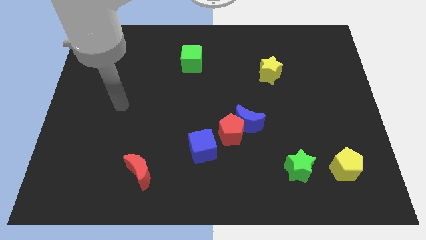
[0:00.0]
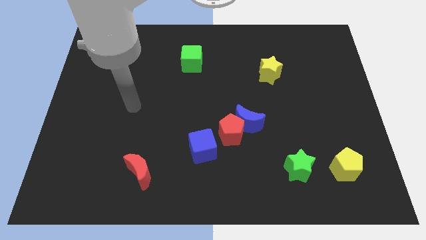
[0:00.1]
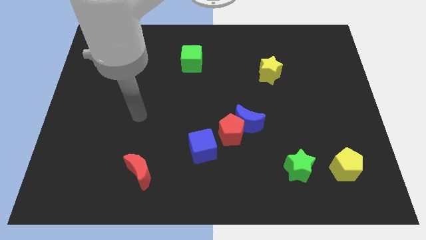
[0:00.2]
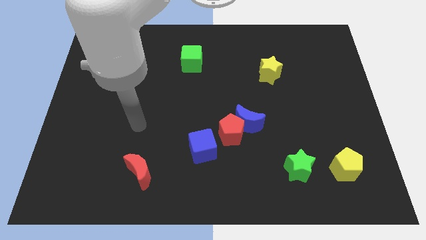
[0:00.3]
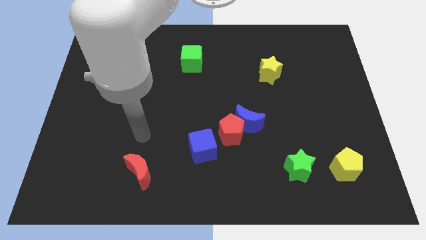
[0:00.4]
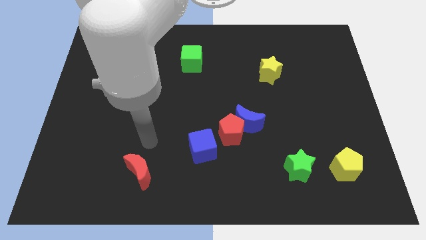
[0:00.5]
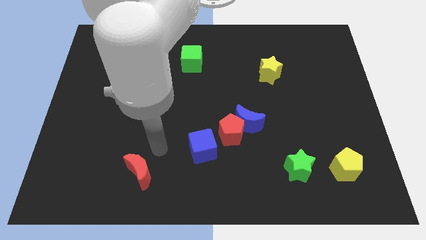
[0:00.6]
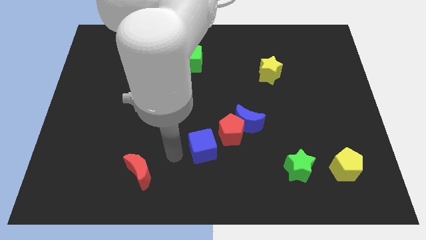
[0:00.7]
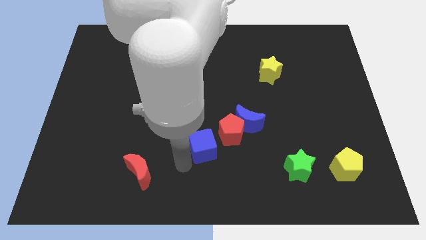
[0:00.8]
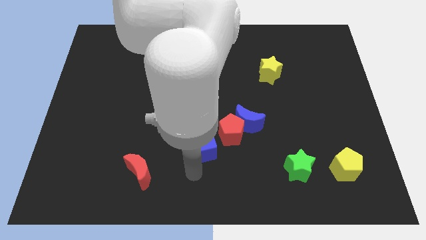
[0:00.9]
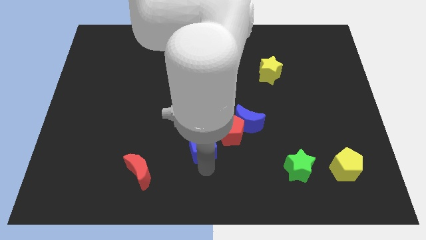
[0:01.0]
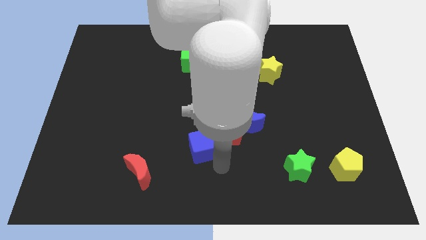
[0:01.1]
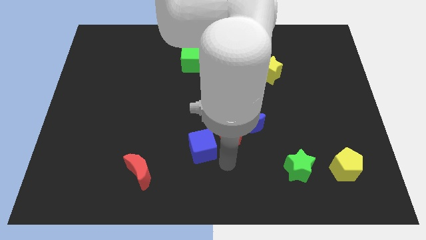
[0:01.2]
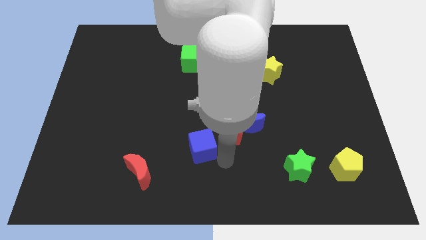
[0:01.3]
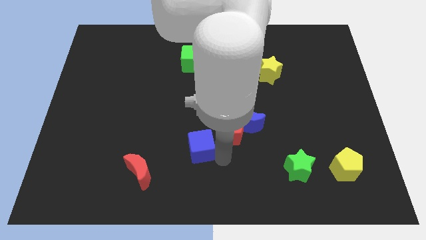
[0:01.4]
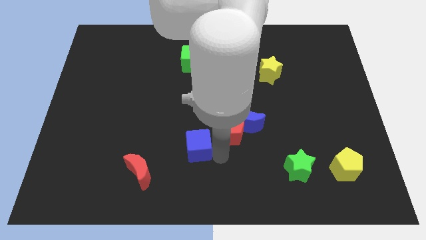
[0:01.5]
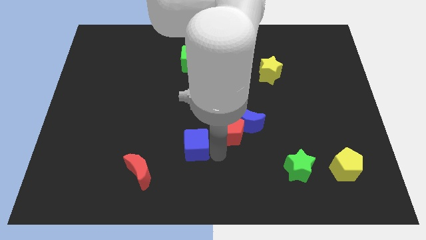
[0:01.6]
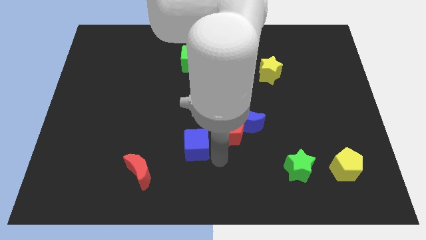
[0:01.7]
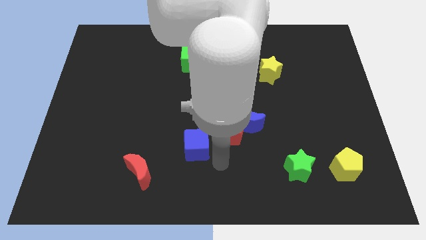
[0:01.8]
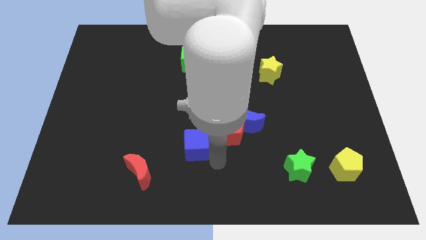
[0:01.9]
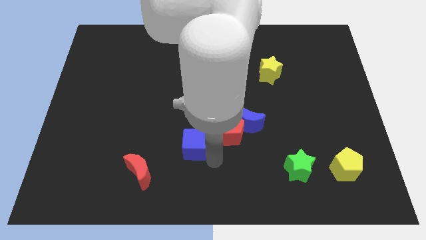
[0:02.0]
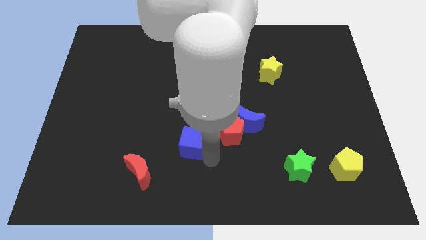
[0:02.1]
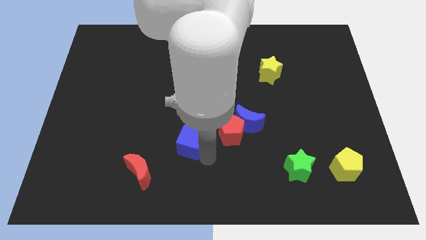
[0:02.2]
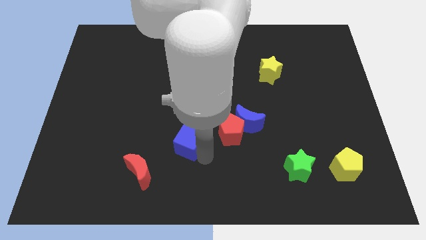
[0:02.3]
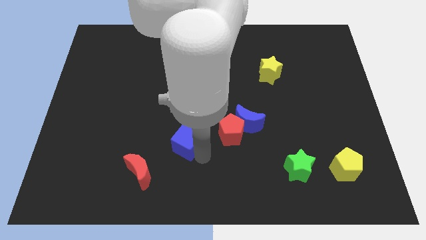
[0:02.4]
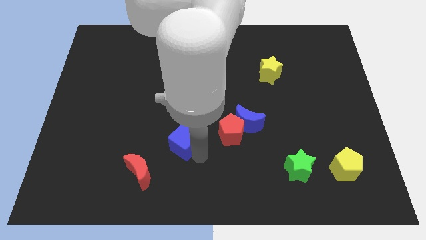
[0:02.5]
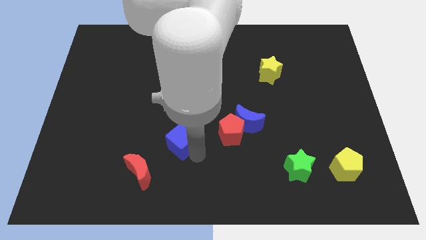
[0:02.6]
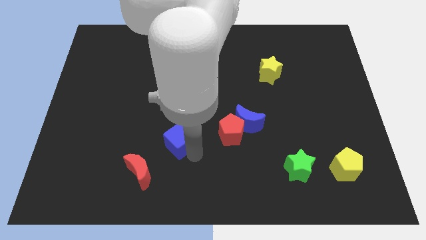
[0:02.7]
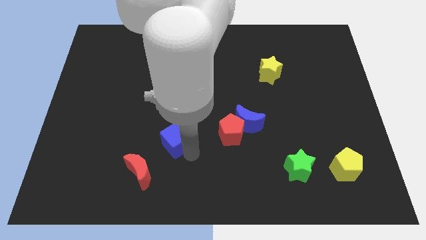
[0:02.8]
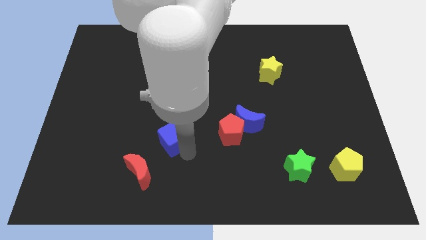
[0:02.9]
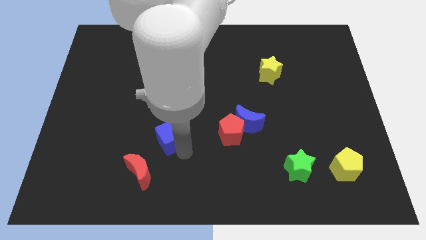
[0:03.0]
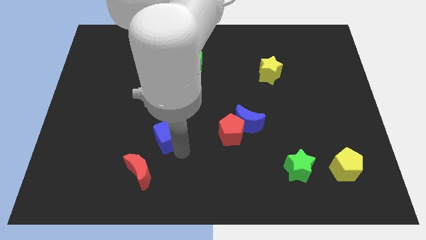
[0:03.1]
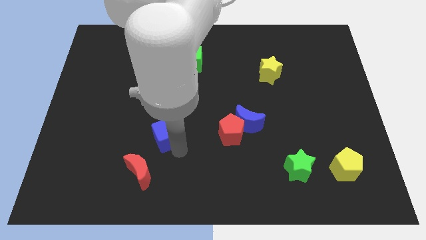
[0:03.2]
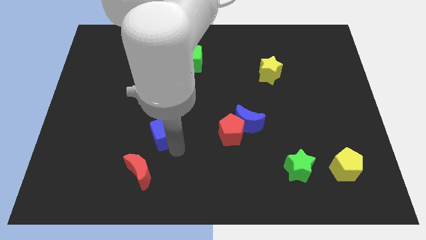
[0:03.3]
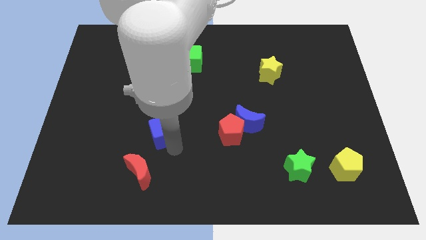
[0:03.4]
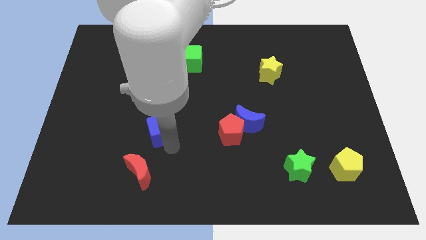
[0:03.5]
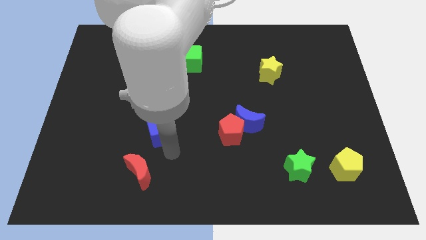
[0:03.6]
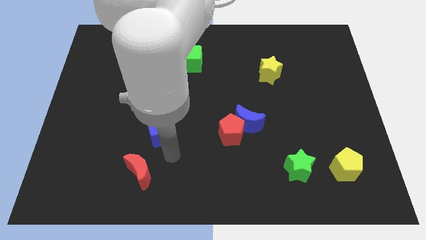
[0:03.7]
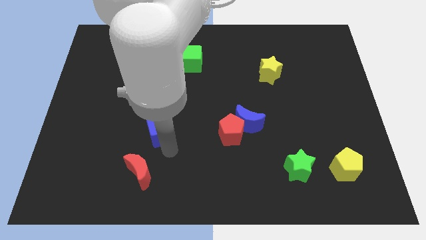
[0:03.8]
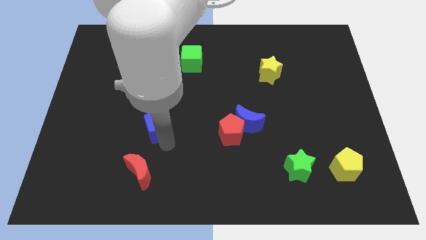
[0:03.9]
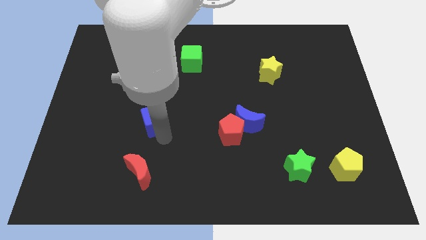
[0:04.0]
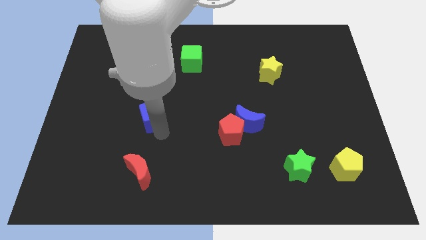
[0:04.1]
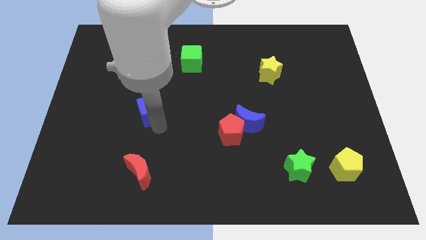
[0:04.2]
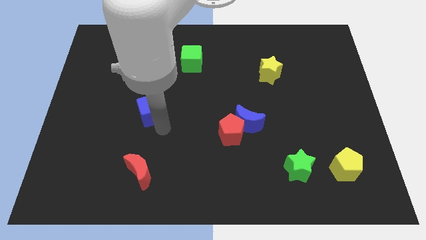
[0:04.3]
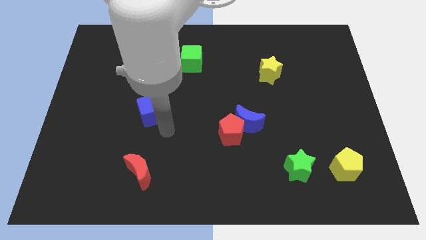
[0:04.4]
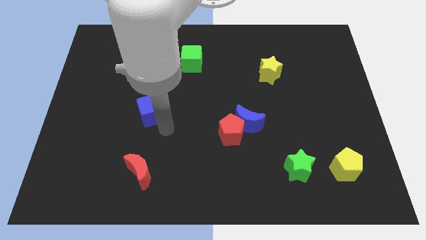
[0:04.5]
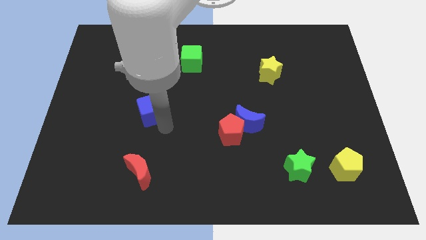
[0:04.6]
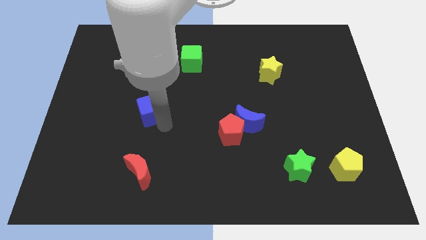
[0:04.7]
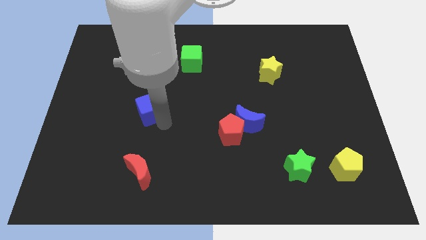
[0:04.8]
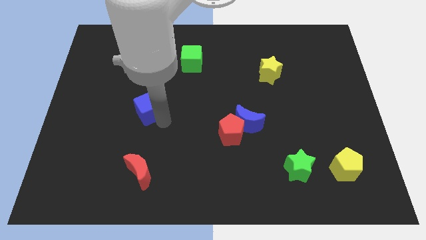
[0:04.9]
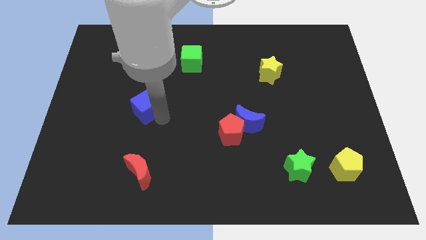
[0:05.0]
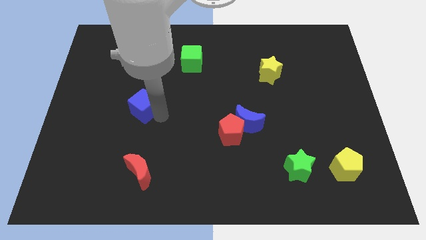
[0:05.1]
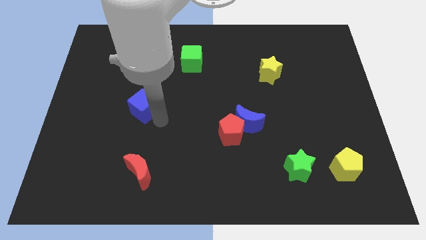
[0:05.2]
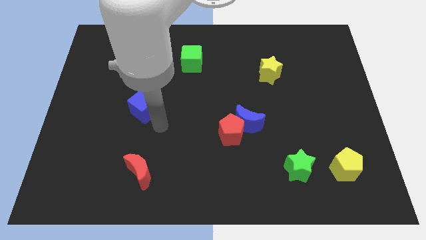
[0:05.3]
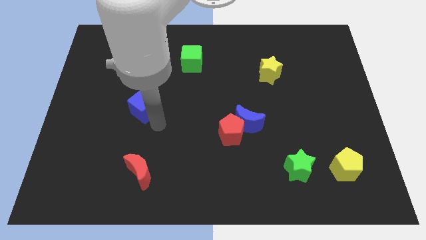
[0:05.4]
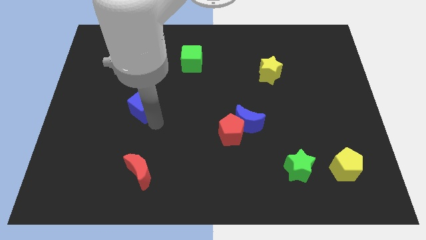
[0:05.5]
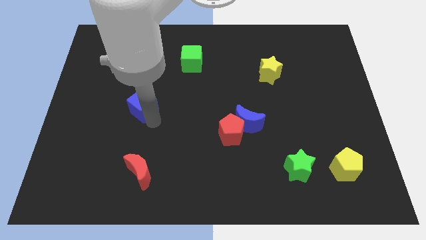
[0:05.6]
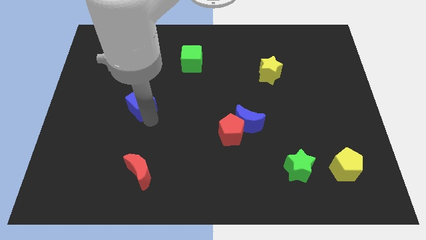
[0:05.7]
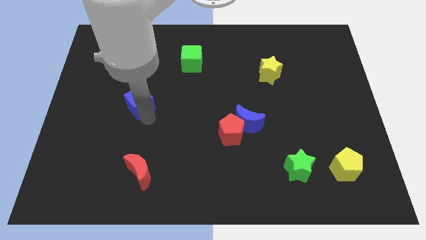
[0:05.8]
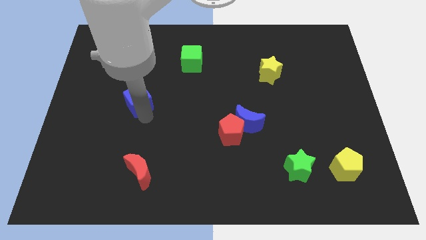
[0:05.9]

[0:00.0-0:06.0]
push the blue cube diagonally upwards and left

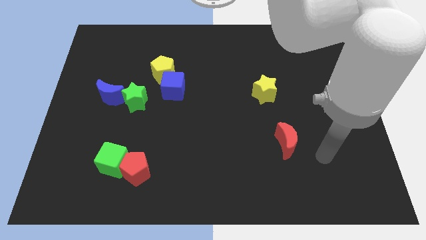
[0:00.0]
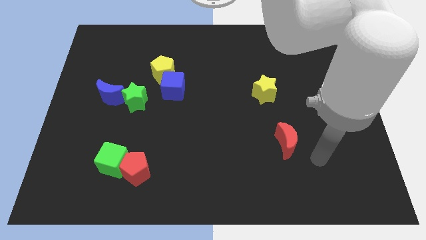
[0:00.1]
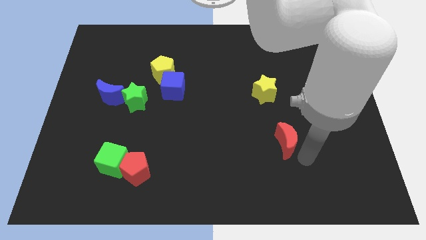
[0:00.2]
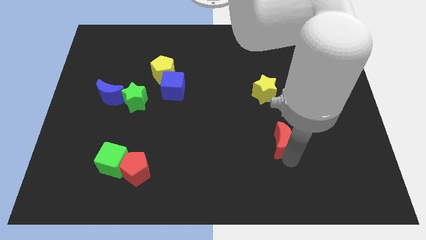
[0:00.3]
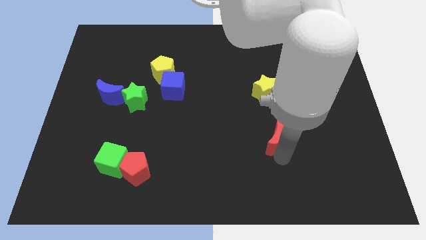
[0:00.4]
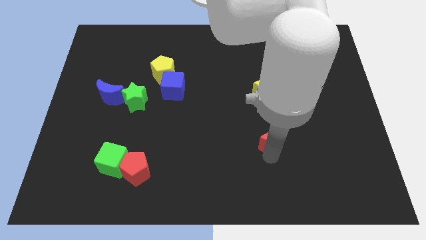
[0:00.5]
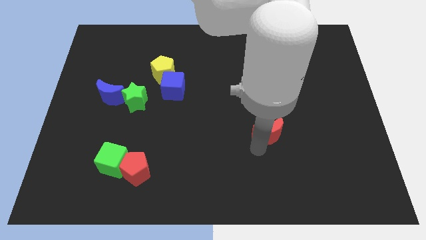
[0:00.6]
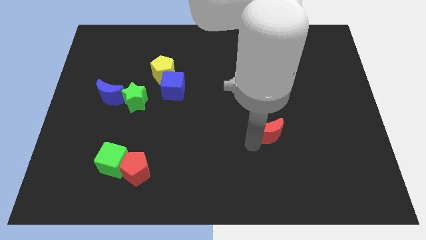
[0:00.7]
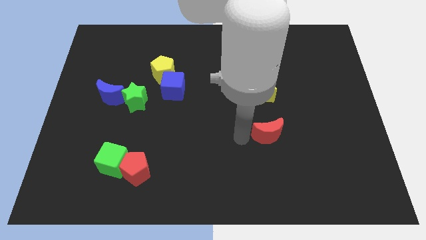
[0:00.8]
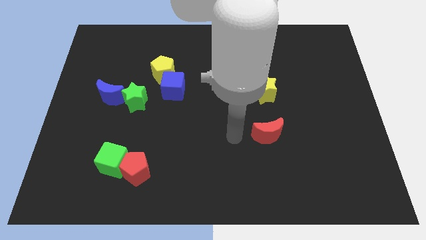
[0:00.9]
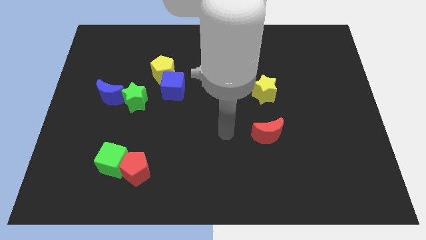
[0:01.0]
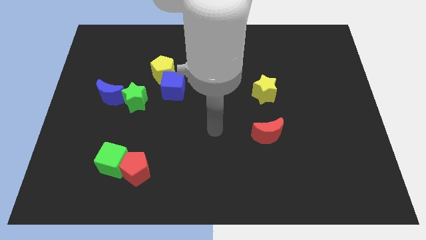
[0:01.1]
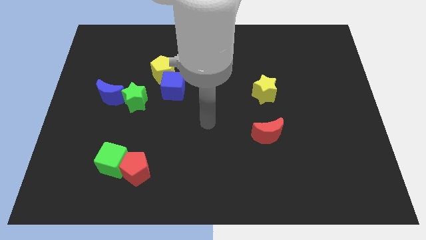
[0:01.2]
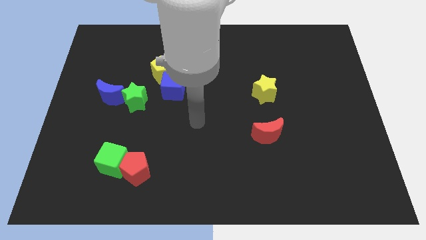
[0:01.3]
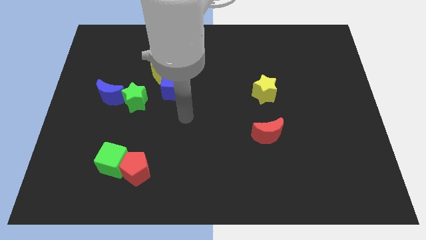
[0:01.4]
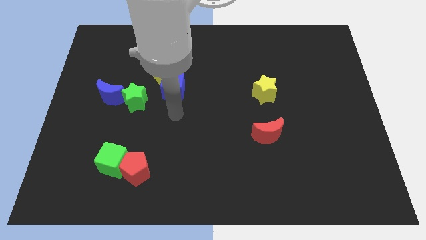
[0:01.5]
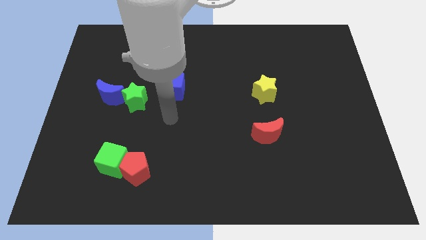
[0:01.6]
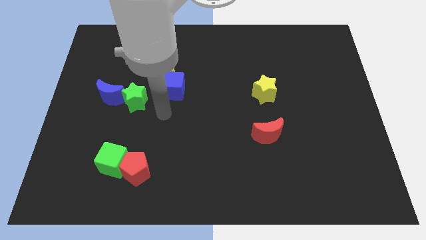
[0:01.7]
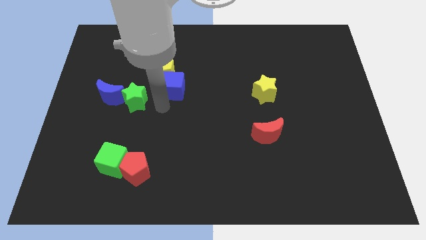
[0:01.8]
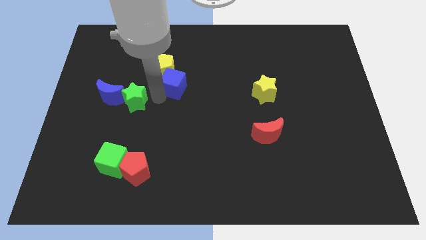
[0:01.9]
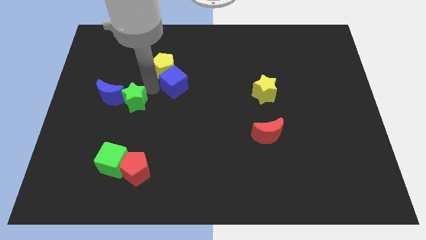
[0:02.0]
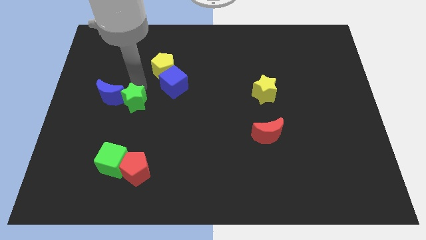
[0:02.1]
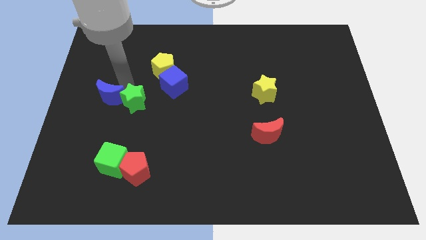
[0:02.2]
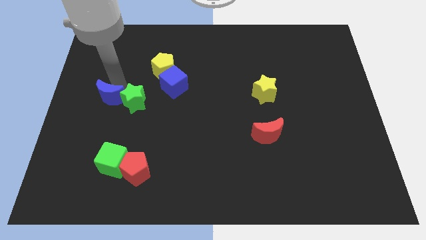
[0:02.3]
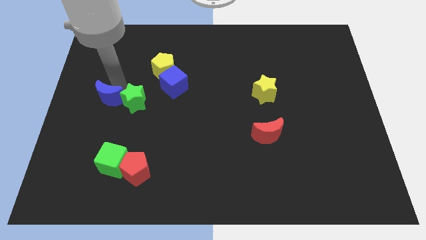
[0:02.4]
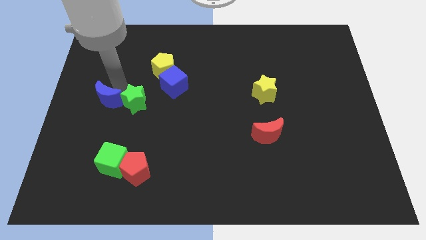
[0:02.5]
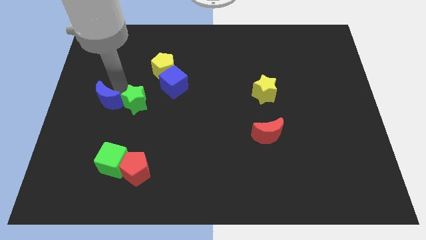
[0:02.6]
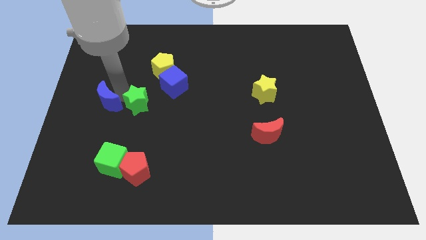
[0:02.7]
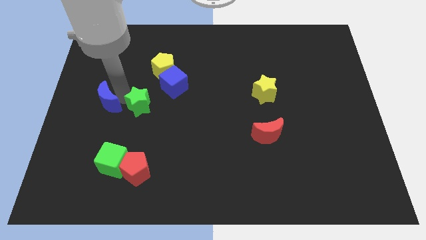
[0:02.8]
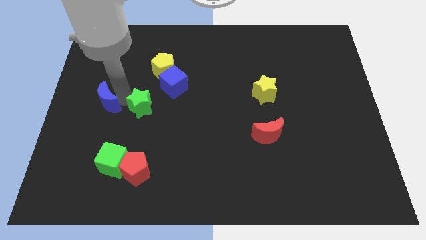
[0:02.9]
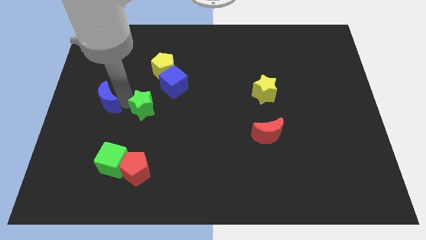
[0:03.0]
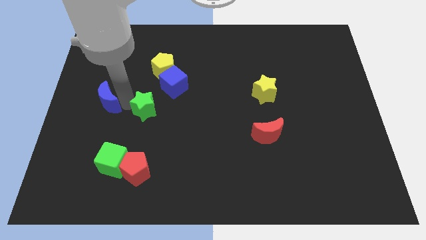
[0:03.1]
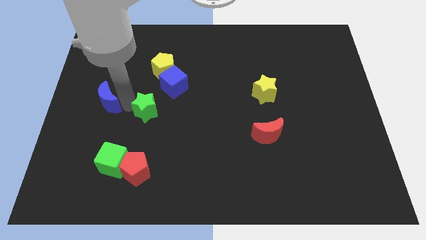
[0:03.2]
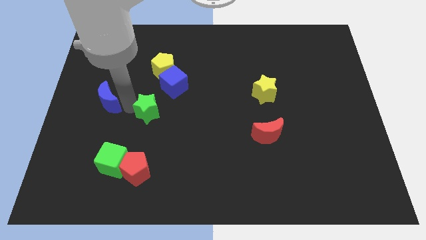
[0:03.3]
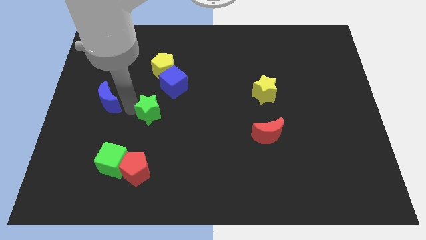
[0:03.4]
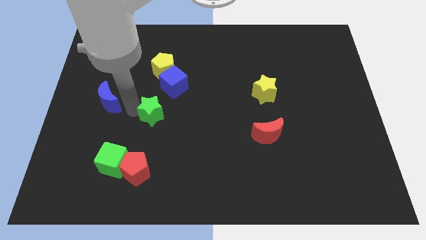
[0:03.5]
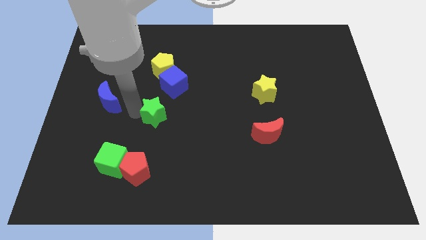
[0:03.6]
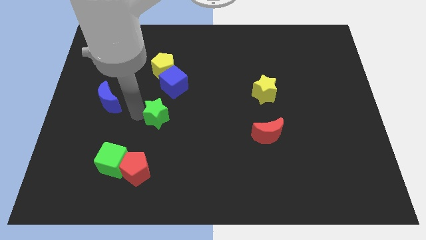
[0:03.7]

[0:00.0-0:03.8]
move the green star somewhat down and to the right diagonally
